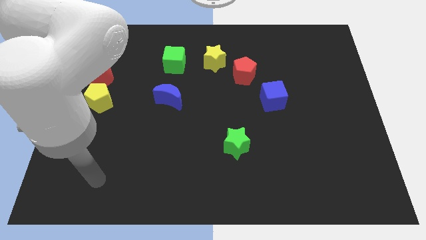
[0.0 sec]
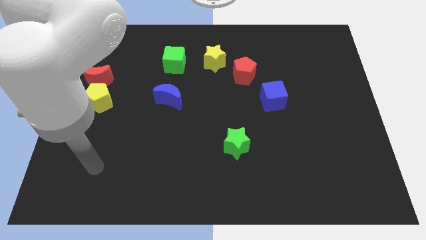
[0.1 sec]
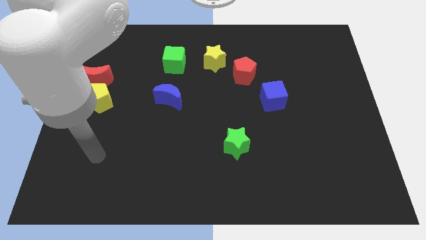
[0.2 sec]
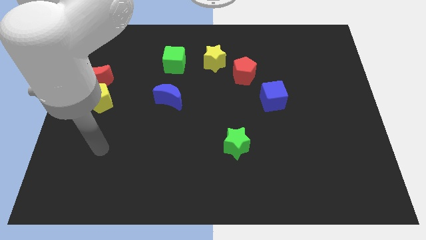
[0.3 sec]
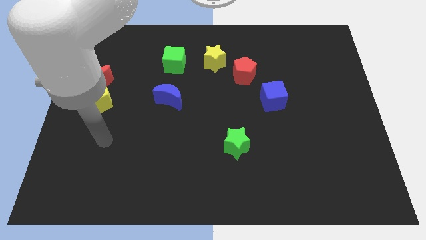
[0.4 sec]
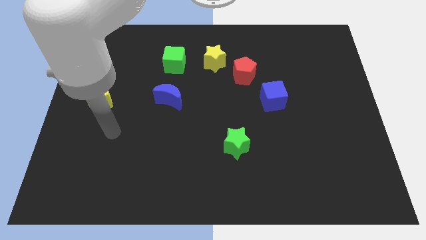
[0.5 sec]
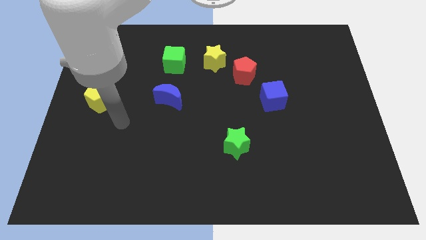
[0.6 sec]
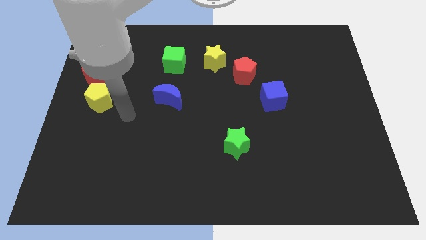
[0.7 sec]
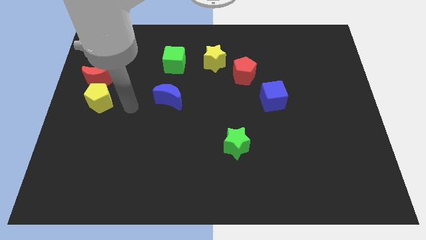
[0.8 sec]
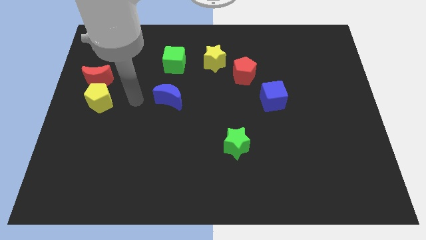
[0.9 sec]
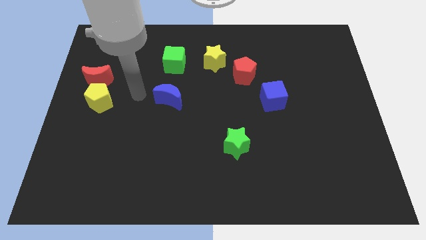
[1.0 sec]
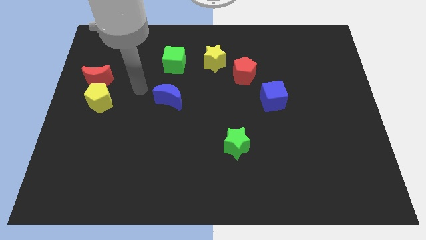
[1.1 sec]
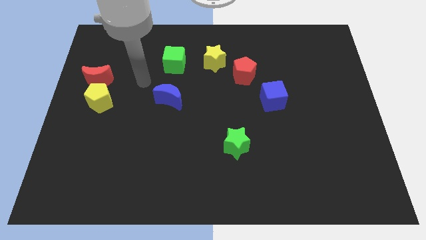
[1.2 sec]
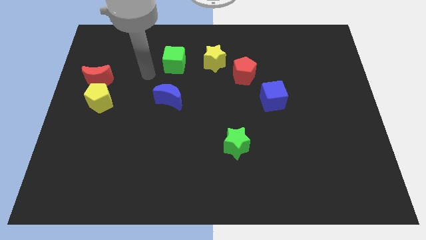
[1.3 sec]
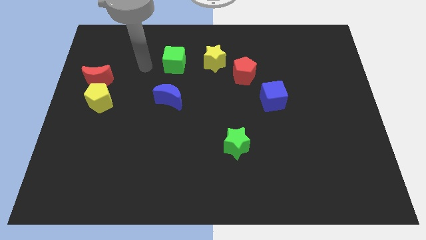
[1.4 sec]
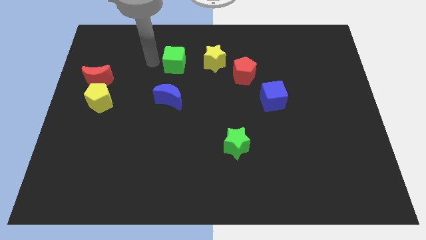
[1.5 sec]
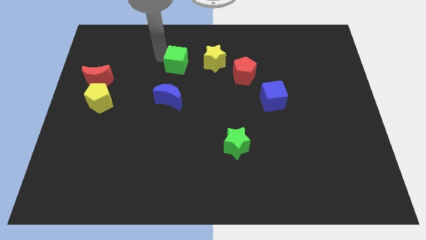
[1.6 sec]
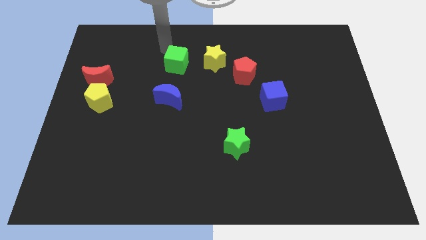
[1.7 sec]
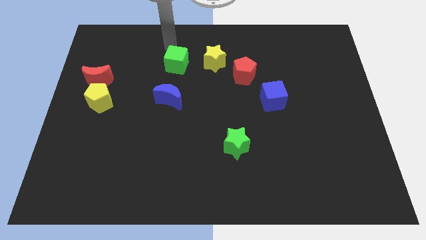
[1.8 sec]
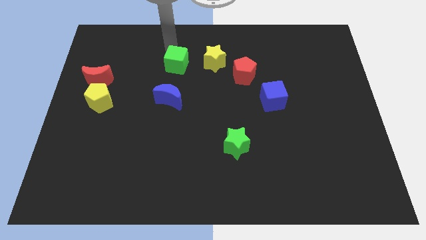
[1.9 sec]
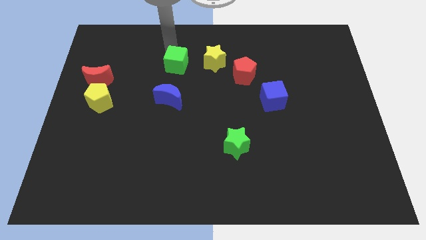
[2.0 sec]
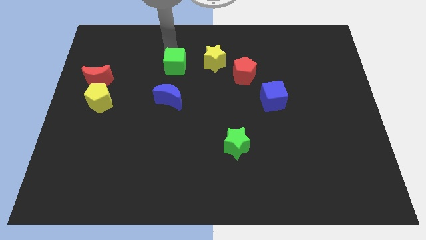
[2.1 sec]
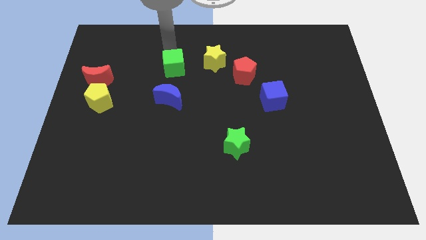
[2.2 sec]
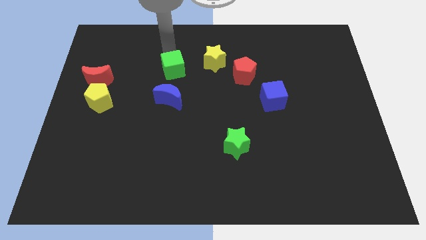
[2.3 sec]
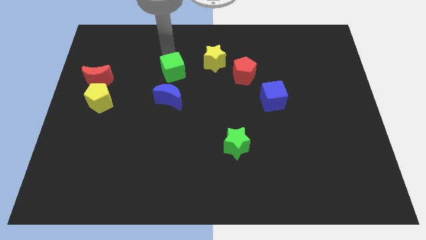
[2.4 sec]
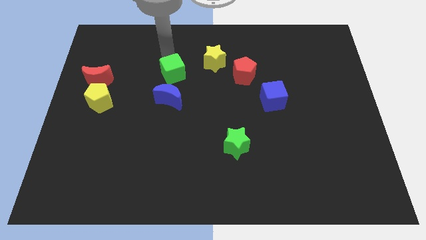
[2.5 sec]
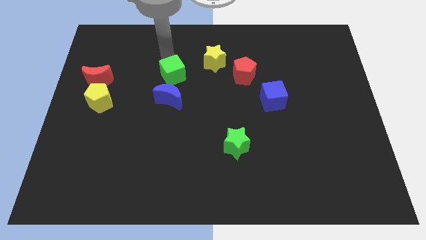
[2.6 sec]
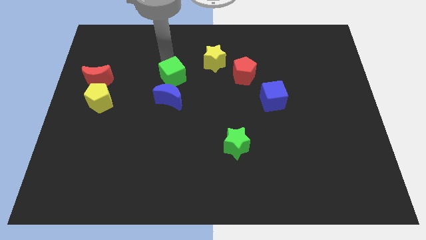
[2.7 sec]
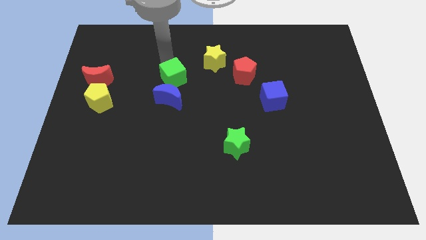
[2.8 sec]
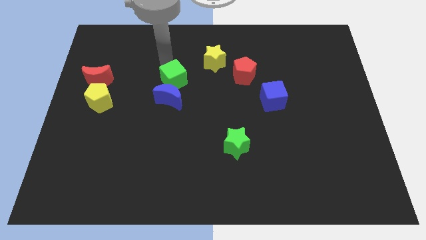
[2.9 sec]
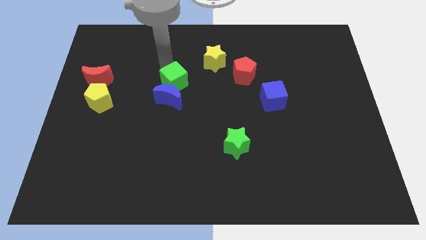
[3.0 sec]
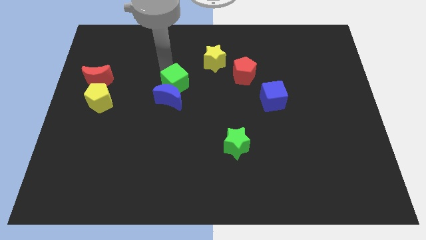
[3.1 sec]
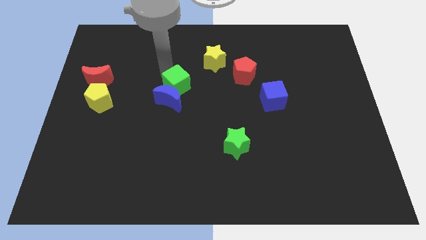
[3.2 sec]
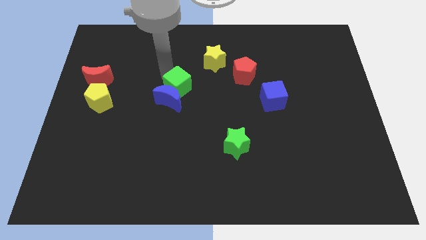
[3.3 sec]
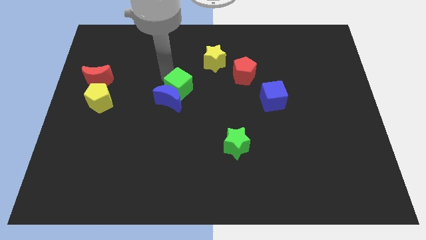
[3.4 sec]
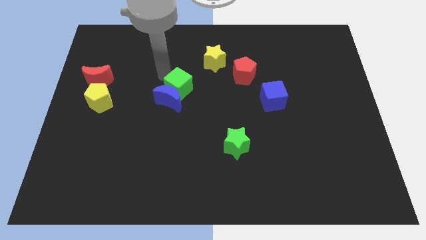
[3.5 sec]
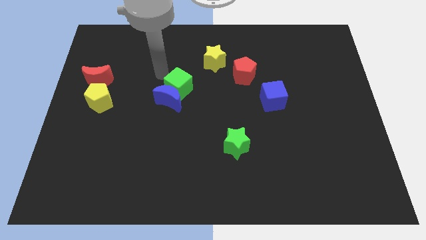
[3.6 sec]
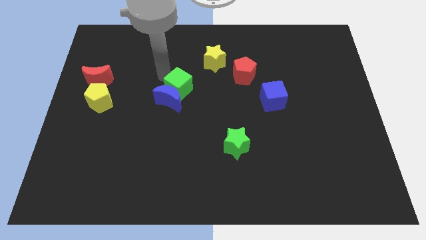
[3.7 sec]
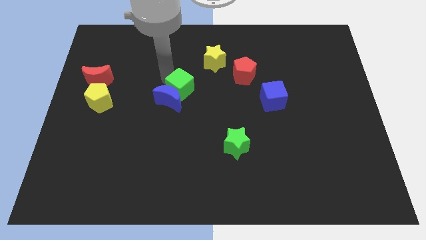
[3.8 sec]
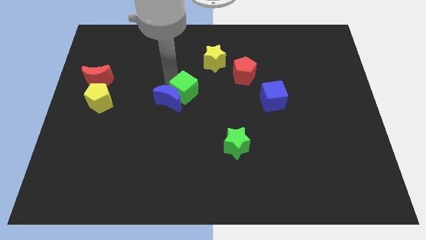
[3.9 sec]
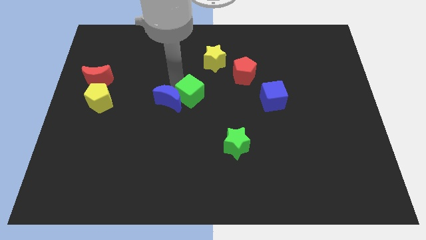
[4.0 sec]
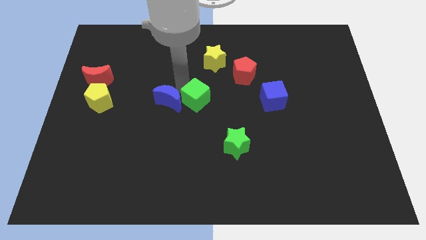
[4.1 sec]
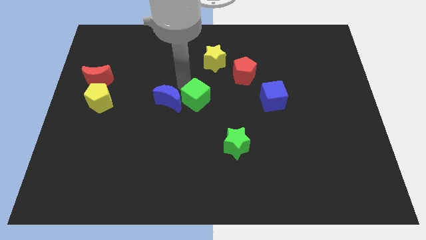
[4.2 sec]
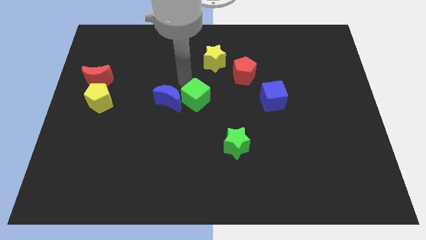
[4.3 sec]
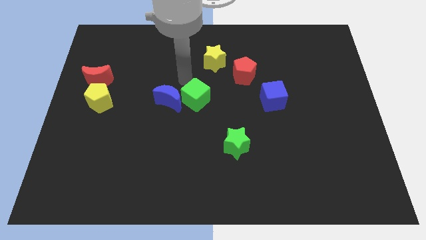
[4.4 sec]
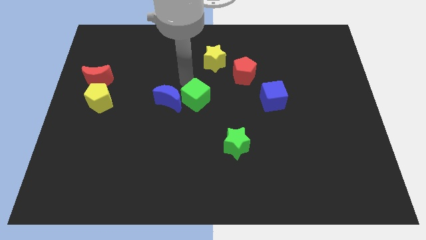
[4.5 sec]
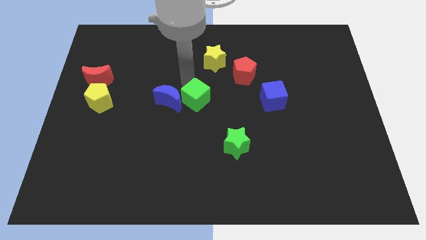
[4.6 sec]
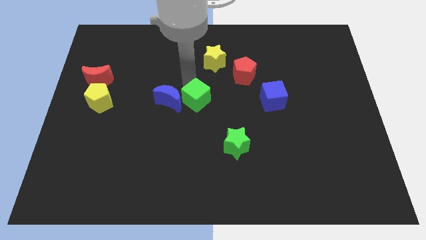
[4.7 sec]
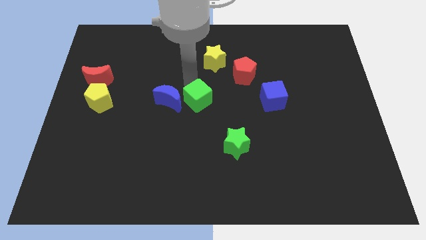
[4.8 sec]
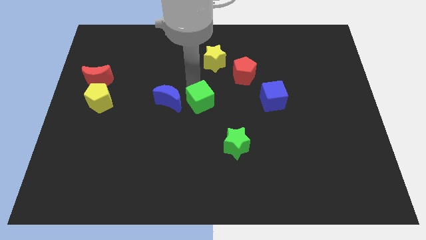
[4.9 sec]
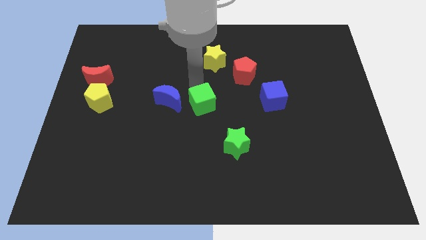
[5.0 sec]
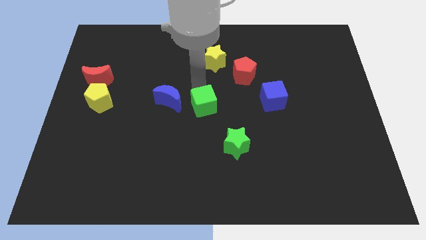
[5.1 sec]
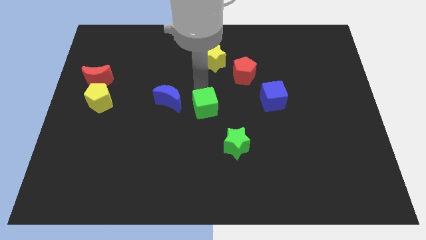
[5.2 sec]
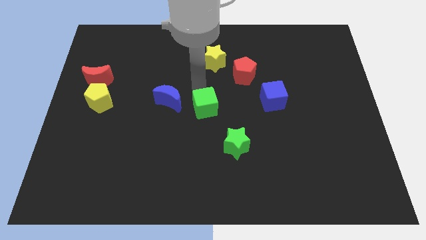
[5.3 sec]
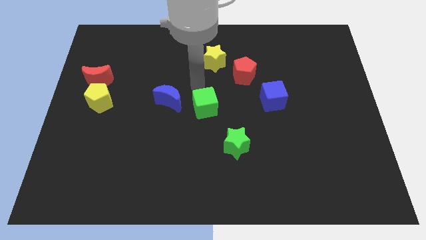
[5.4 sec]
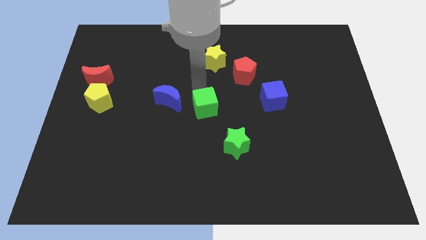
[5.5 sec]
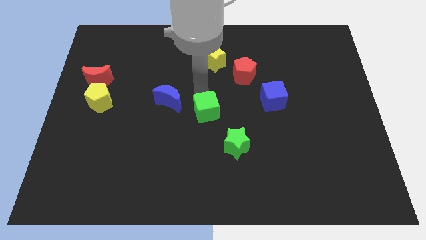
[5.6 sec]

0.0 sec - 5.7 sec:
slide the green cube to the top left side of the green star
